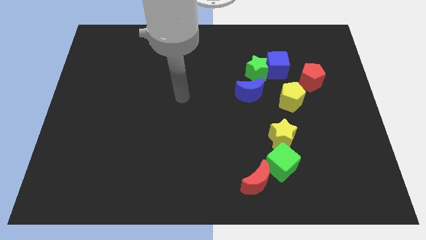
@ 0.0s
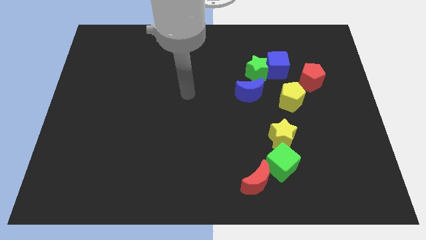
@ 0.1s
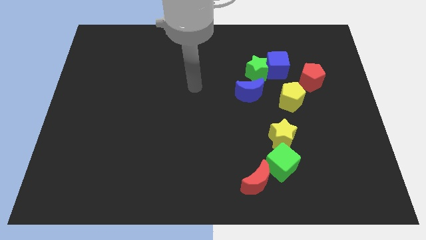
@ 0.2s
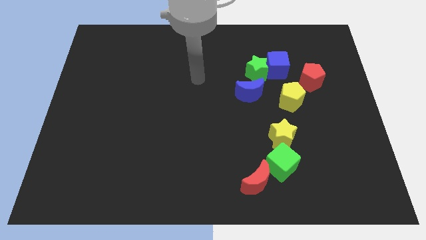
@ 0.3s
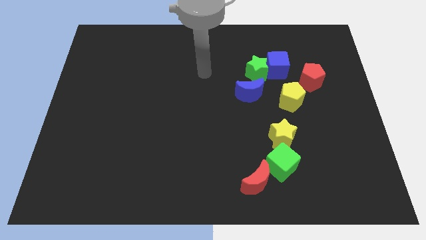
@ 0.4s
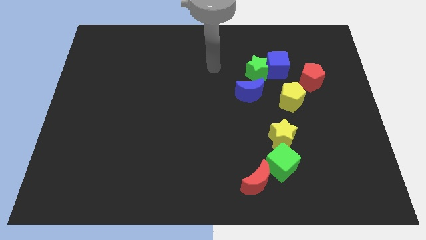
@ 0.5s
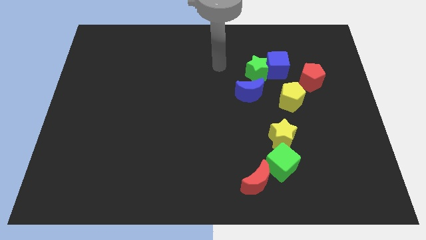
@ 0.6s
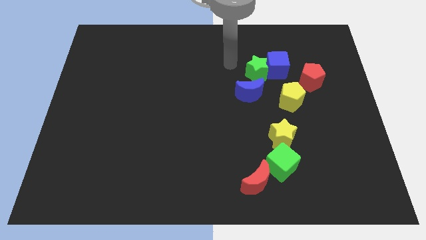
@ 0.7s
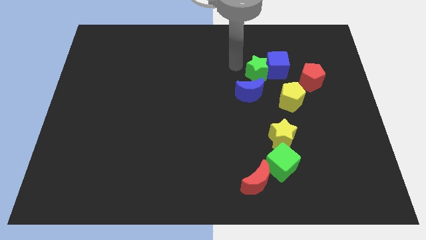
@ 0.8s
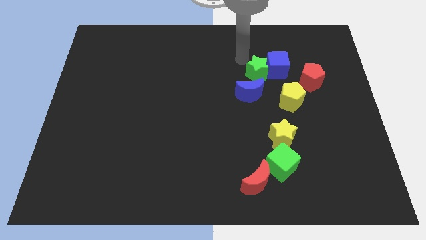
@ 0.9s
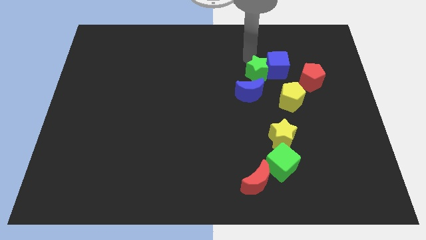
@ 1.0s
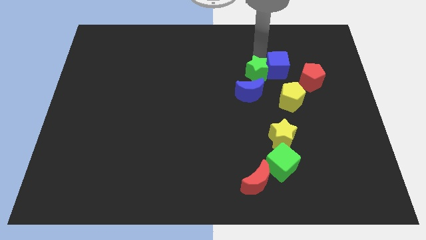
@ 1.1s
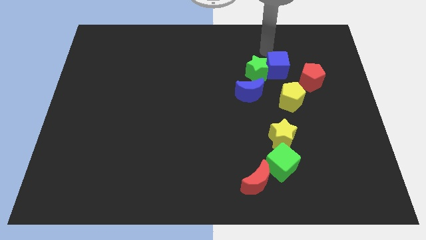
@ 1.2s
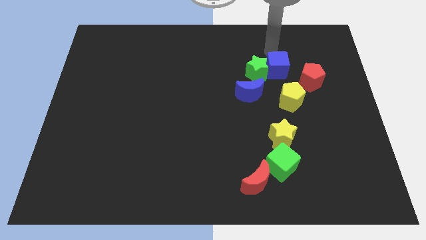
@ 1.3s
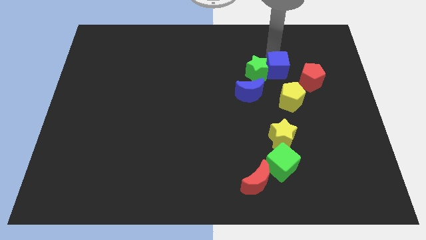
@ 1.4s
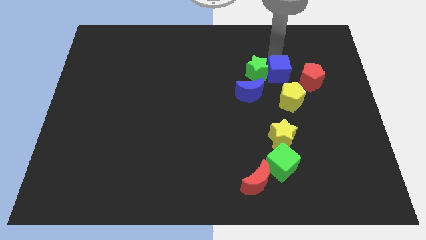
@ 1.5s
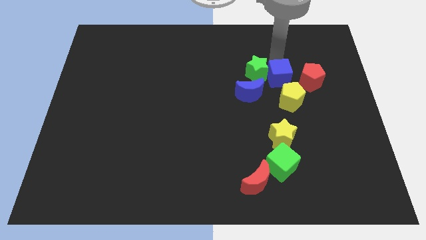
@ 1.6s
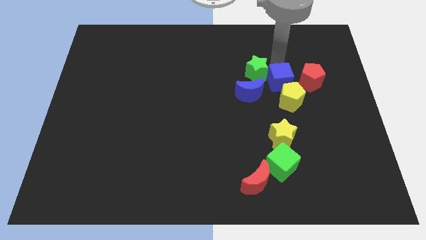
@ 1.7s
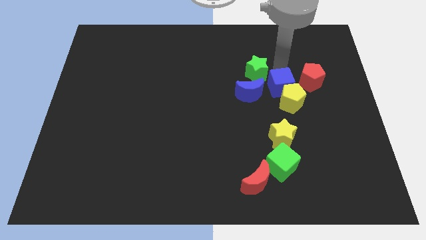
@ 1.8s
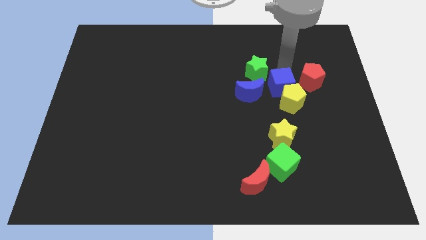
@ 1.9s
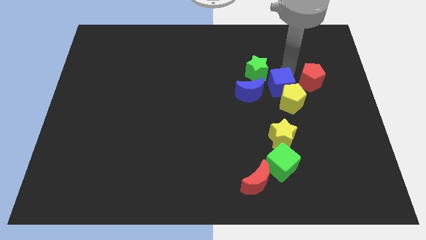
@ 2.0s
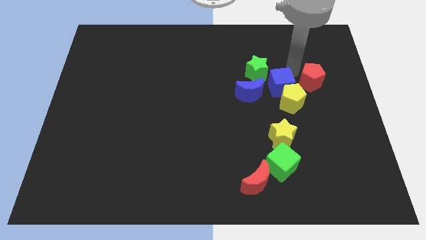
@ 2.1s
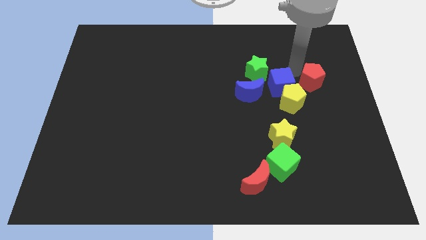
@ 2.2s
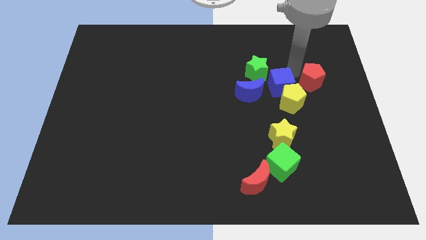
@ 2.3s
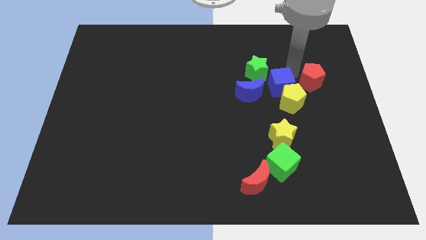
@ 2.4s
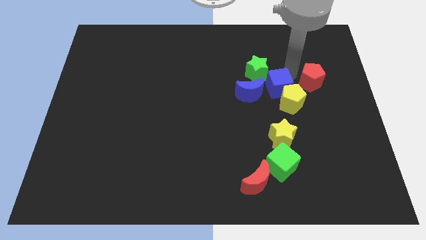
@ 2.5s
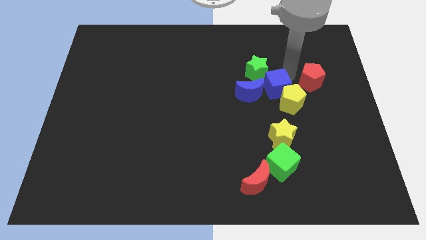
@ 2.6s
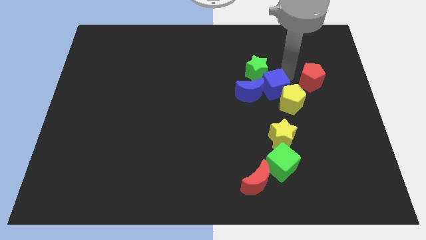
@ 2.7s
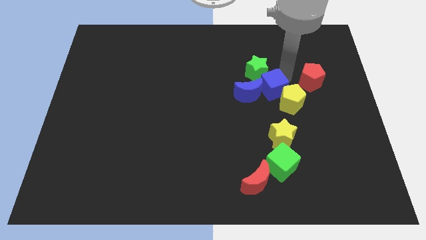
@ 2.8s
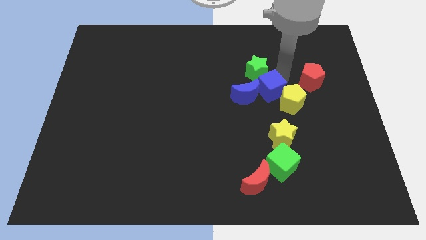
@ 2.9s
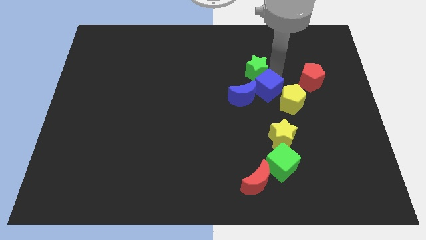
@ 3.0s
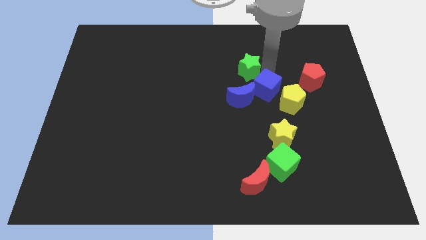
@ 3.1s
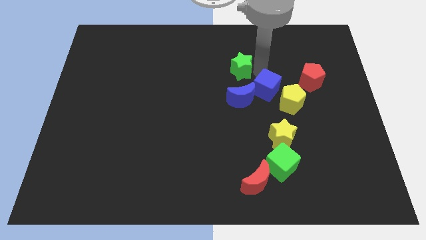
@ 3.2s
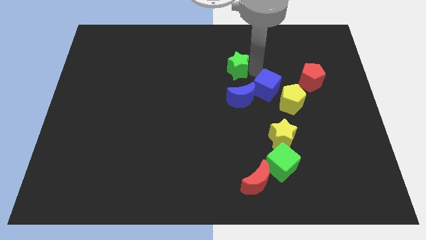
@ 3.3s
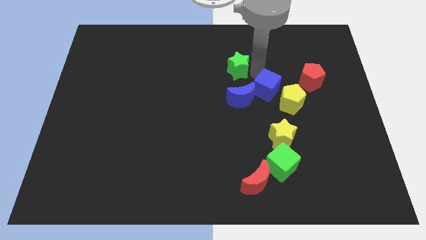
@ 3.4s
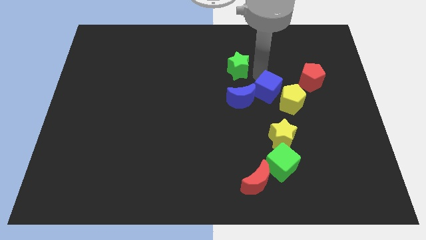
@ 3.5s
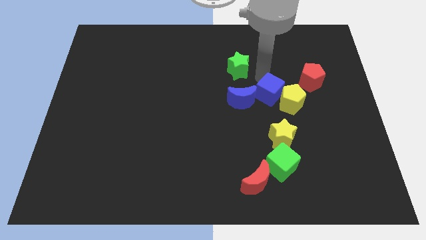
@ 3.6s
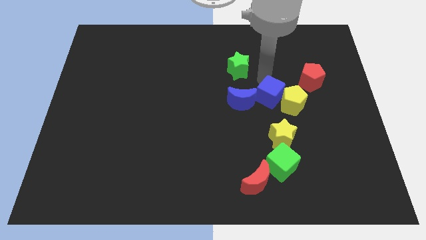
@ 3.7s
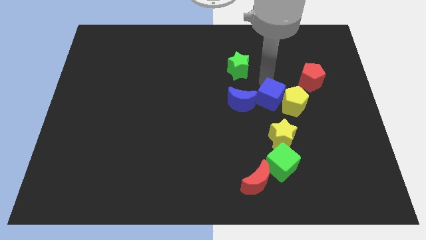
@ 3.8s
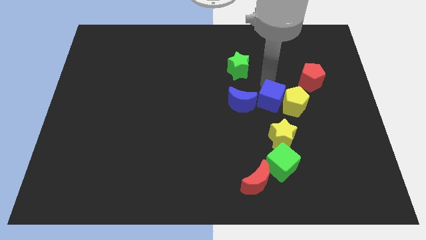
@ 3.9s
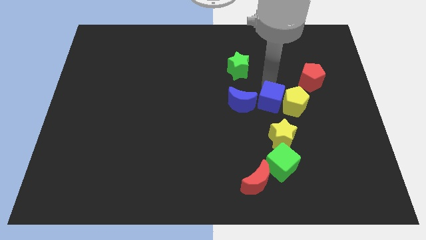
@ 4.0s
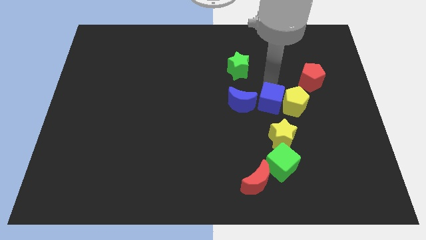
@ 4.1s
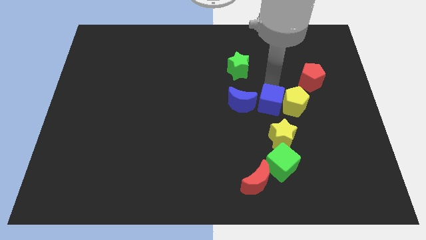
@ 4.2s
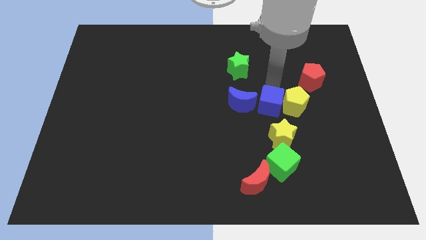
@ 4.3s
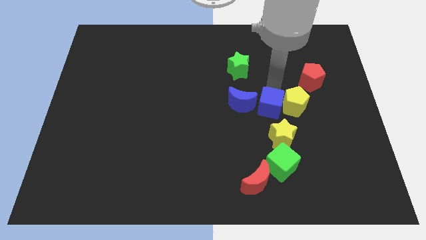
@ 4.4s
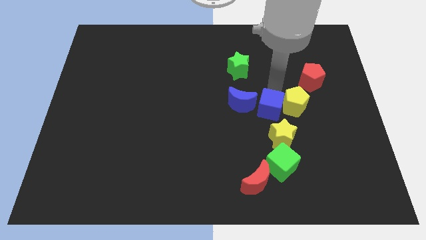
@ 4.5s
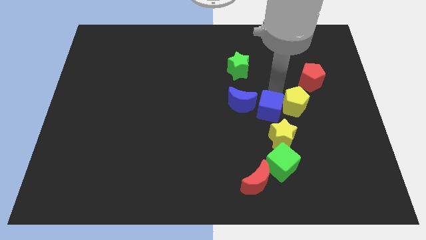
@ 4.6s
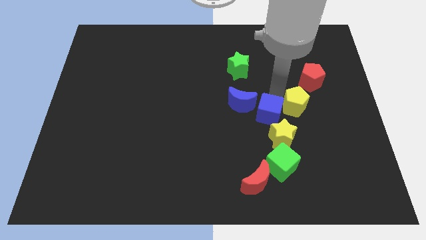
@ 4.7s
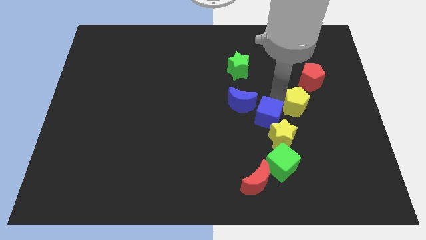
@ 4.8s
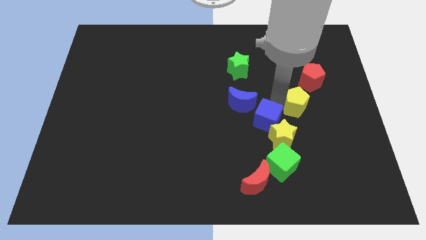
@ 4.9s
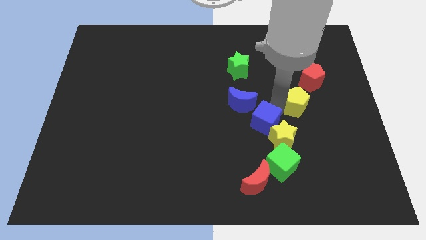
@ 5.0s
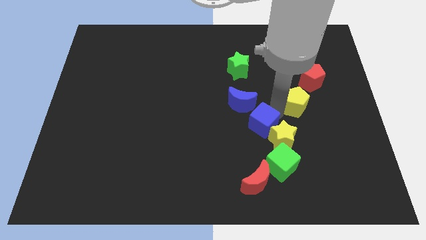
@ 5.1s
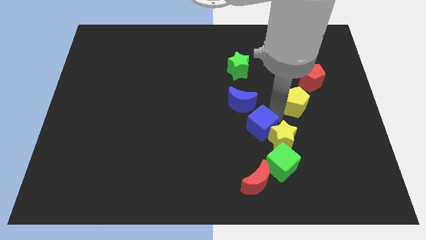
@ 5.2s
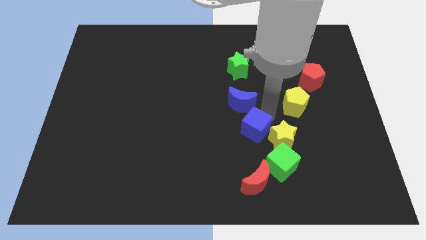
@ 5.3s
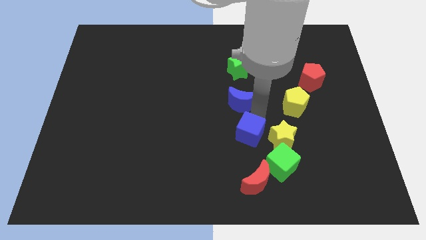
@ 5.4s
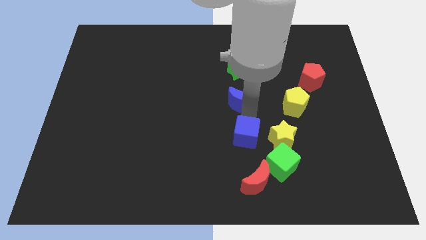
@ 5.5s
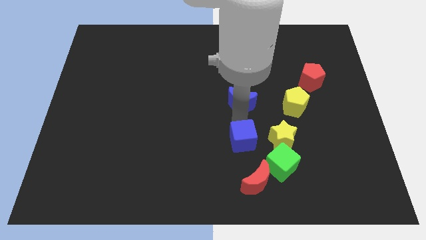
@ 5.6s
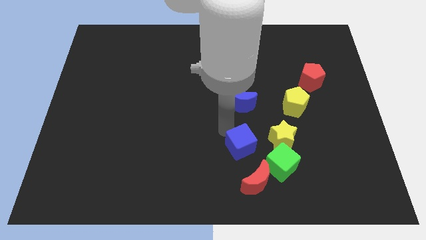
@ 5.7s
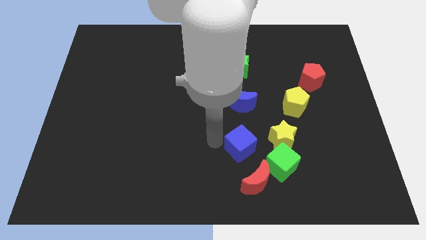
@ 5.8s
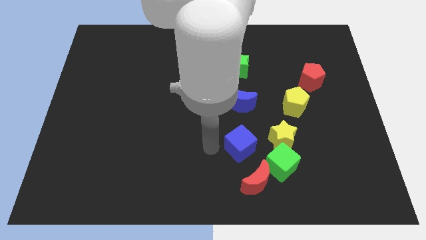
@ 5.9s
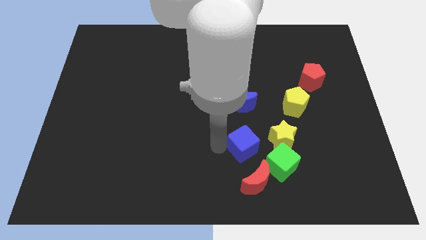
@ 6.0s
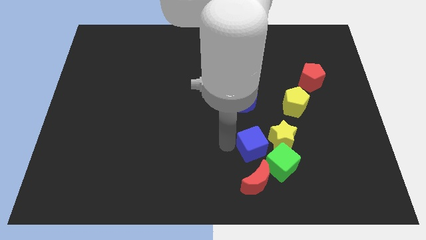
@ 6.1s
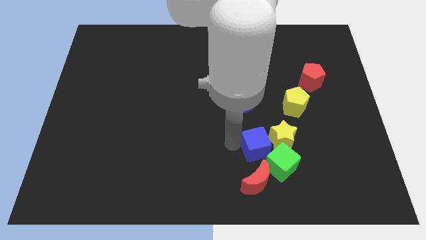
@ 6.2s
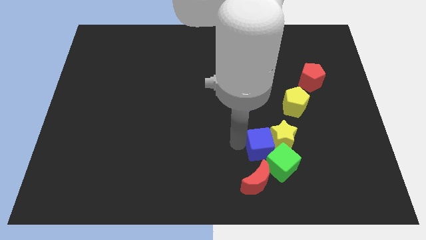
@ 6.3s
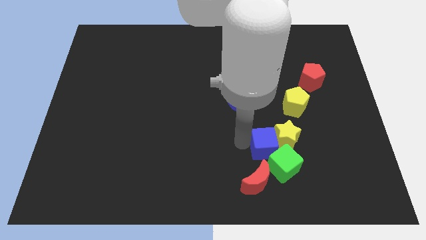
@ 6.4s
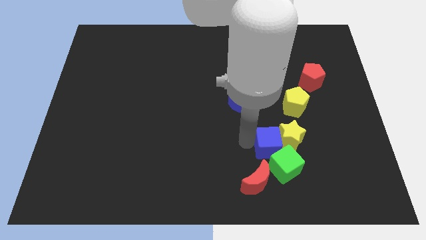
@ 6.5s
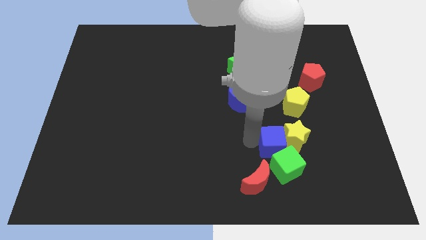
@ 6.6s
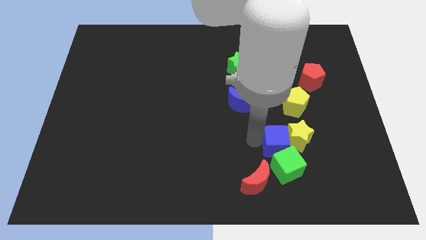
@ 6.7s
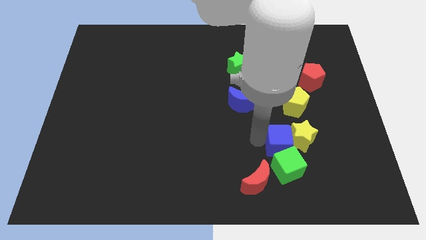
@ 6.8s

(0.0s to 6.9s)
put the blue cube to the top right side of the green cube
